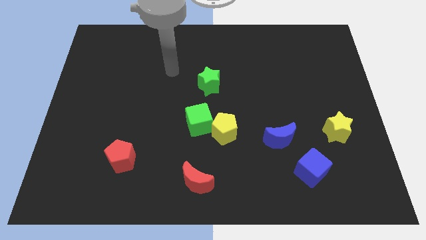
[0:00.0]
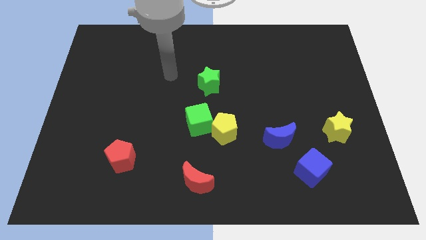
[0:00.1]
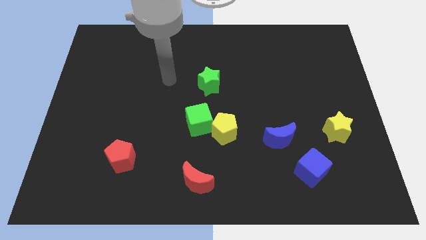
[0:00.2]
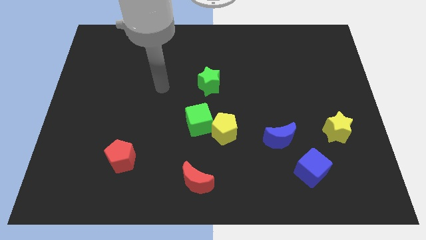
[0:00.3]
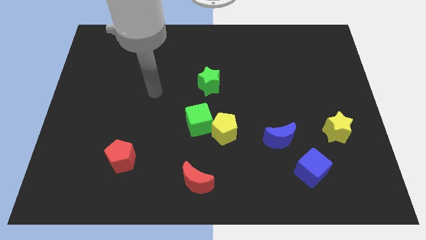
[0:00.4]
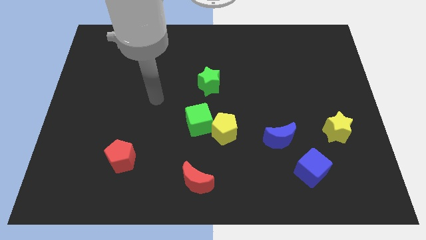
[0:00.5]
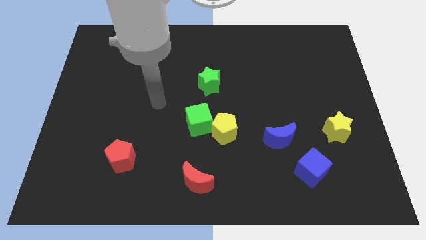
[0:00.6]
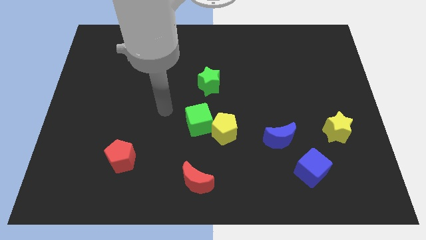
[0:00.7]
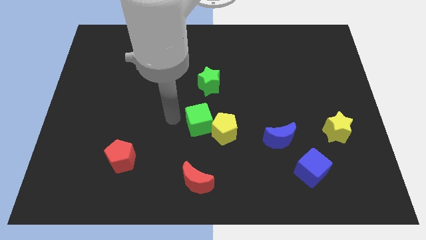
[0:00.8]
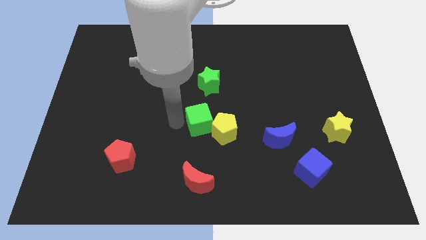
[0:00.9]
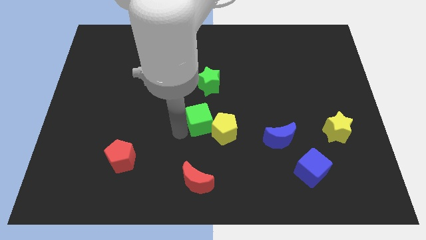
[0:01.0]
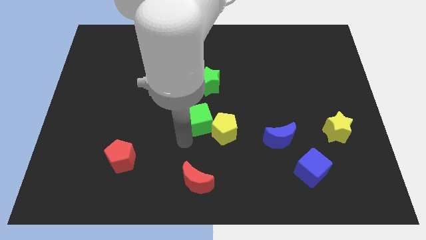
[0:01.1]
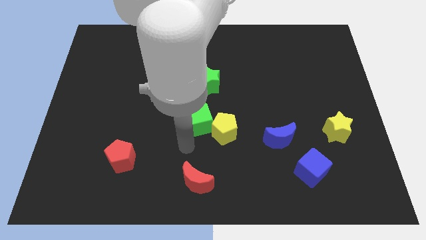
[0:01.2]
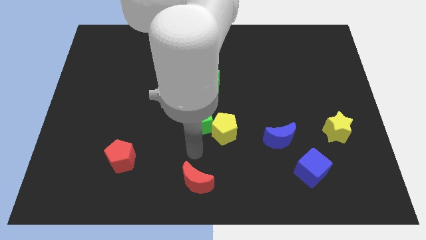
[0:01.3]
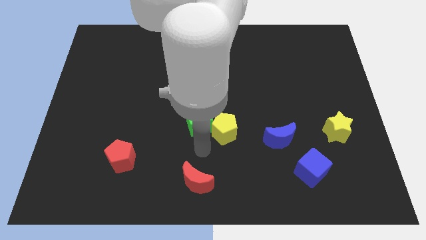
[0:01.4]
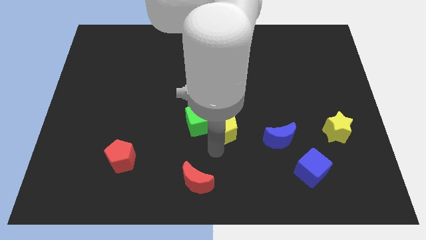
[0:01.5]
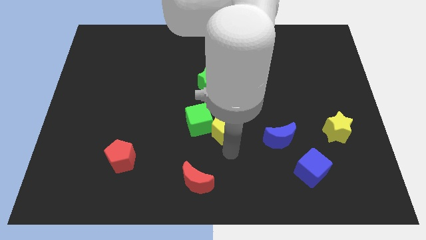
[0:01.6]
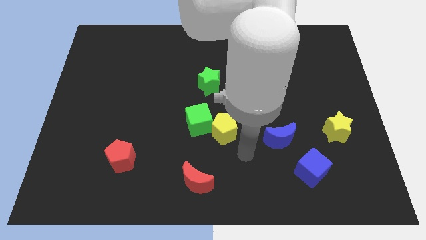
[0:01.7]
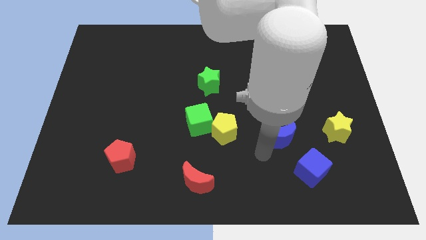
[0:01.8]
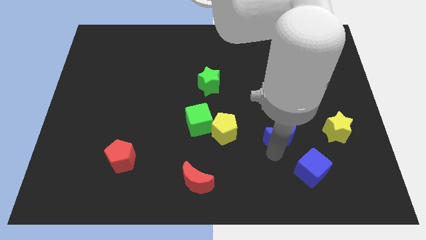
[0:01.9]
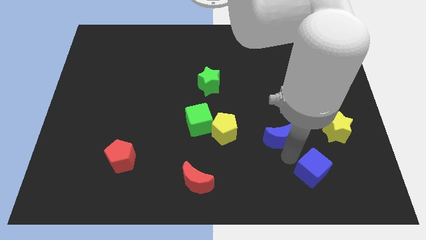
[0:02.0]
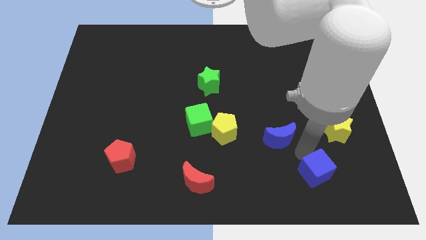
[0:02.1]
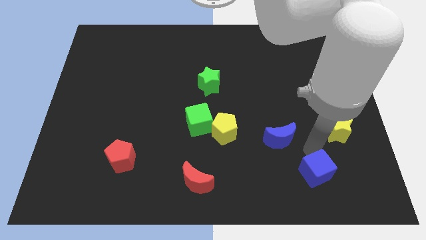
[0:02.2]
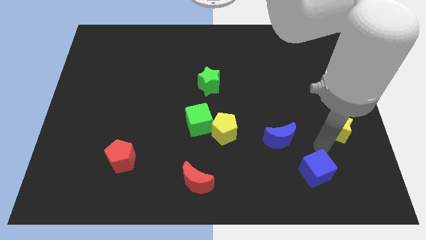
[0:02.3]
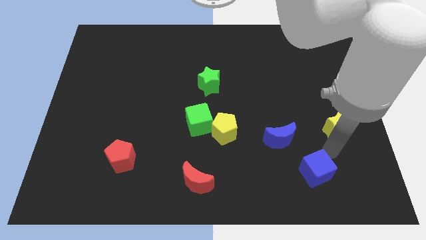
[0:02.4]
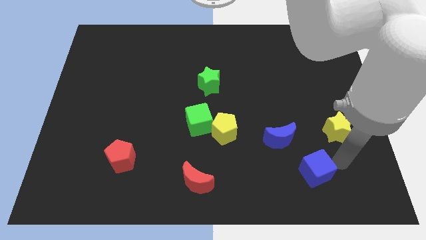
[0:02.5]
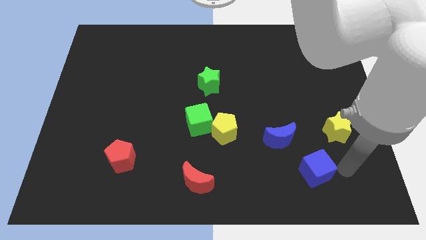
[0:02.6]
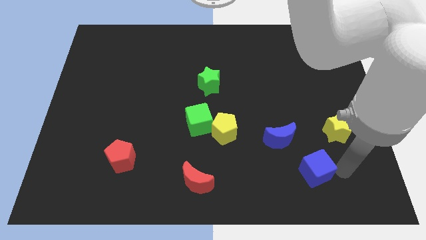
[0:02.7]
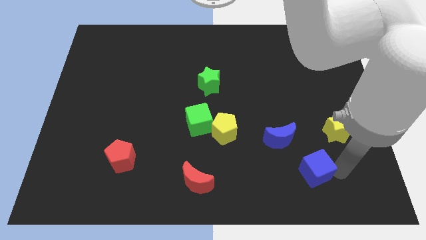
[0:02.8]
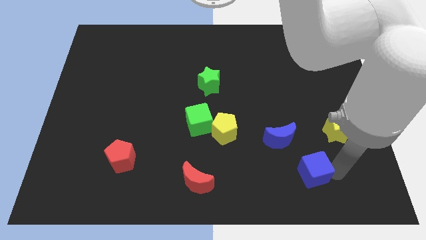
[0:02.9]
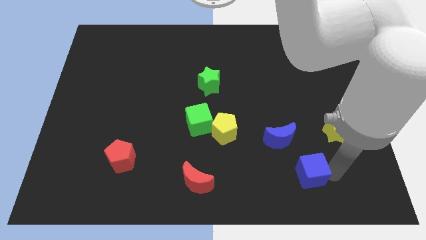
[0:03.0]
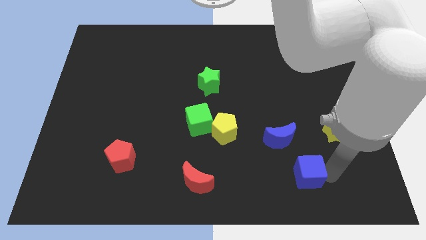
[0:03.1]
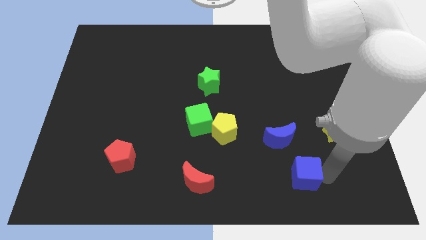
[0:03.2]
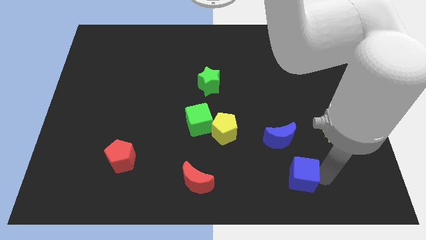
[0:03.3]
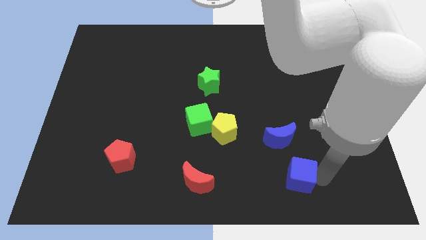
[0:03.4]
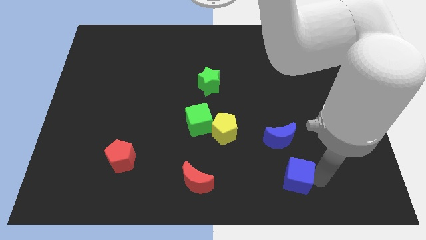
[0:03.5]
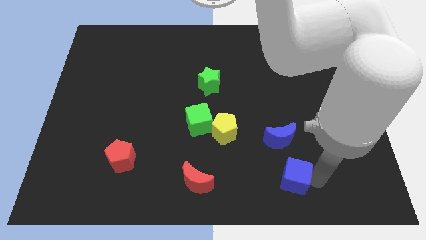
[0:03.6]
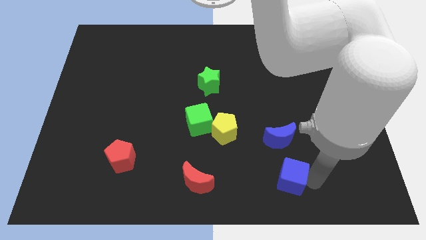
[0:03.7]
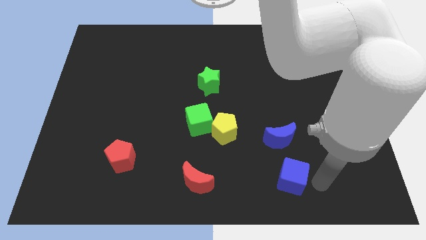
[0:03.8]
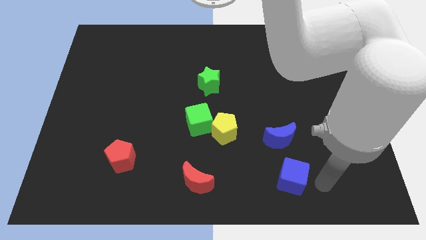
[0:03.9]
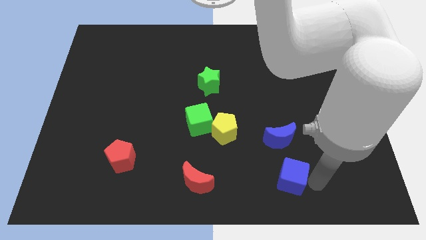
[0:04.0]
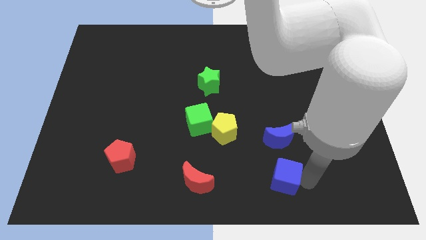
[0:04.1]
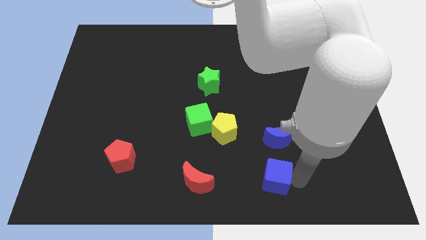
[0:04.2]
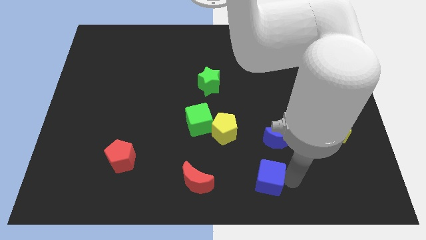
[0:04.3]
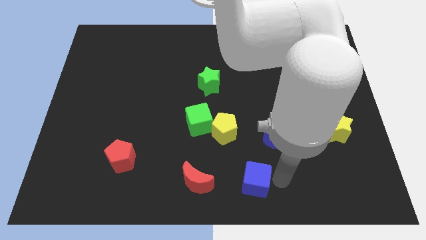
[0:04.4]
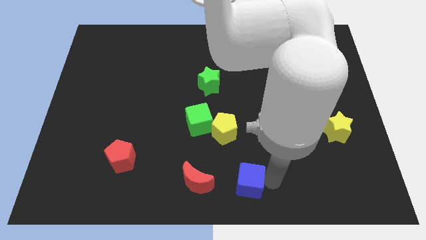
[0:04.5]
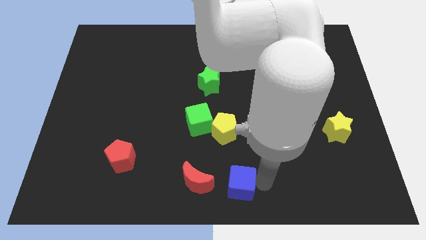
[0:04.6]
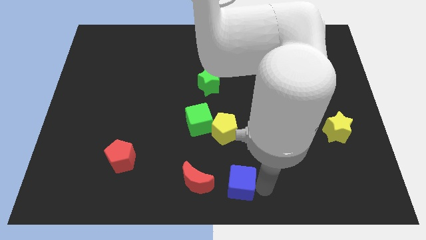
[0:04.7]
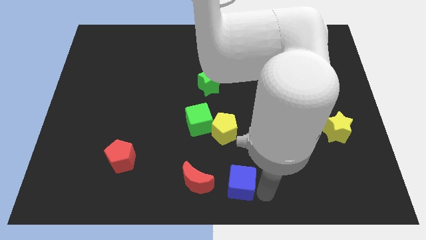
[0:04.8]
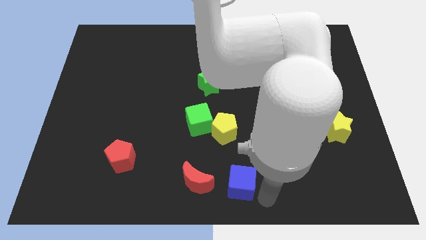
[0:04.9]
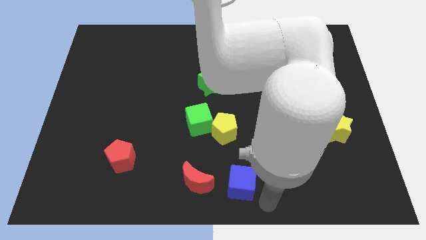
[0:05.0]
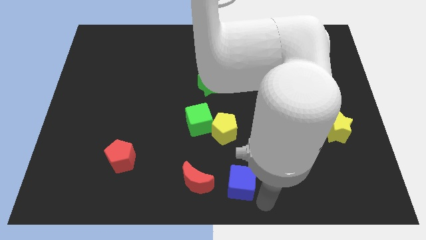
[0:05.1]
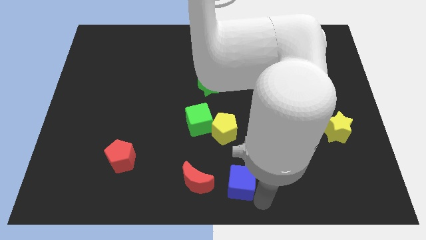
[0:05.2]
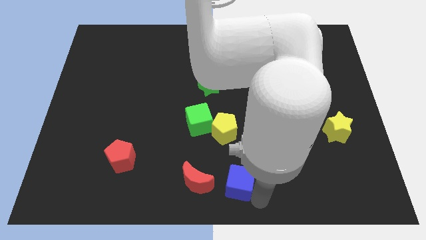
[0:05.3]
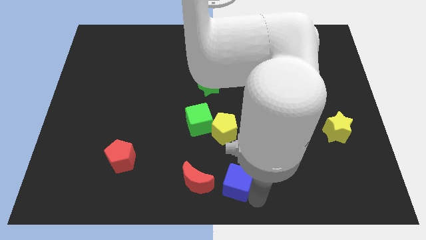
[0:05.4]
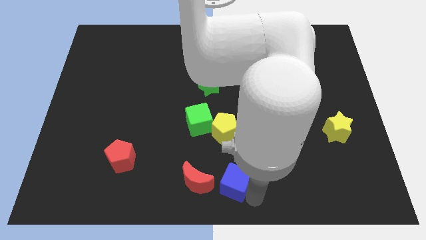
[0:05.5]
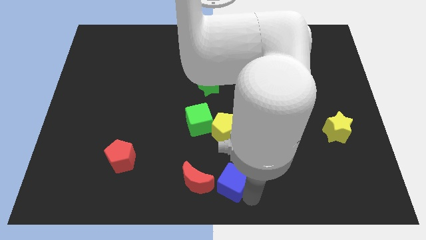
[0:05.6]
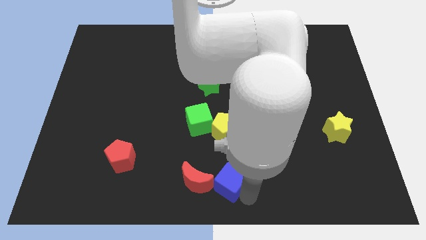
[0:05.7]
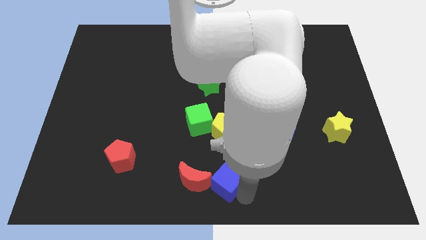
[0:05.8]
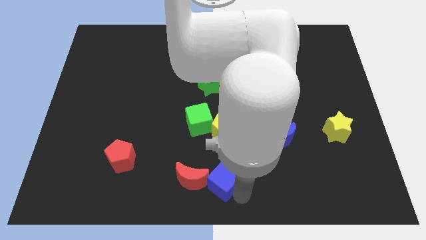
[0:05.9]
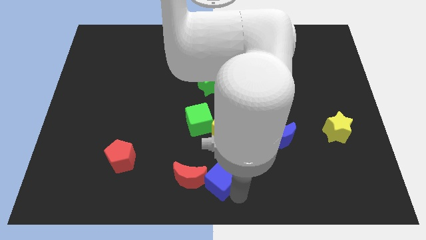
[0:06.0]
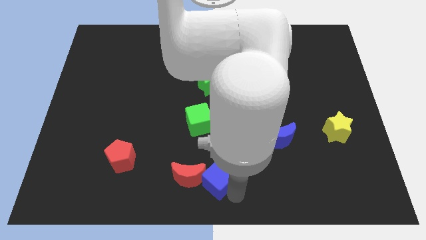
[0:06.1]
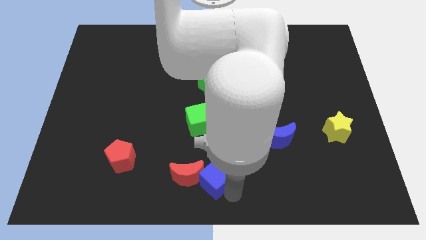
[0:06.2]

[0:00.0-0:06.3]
move the blue cube to the left

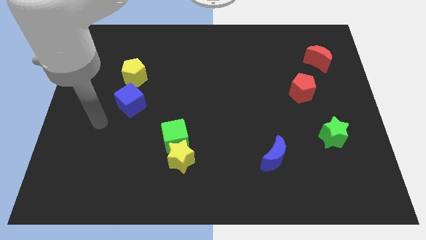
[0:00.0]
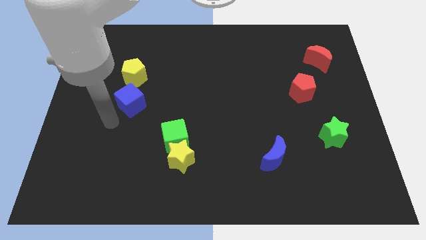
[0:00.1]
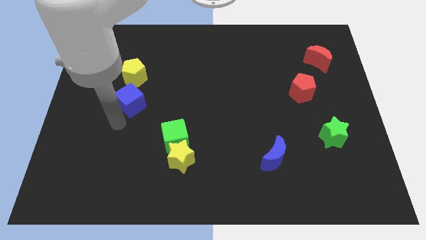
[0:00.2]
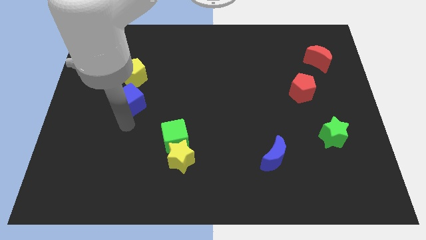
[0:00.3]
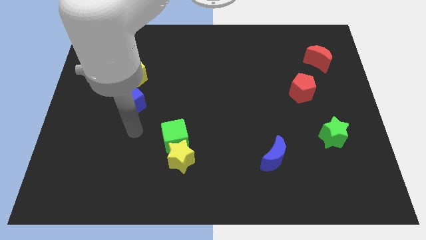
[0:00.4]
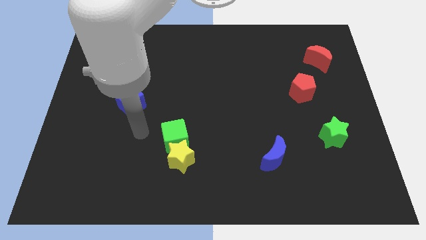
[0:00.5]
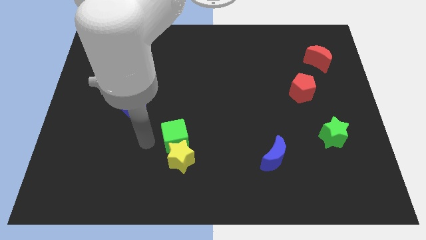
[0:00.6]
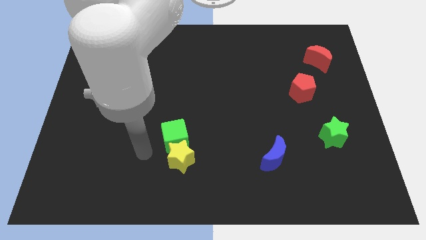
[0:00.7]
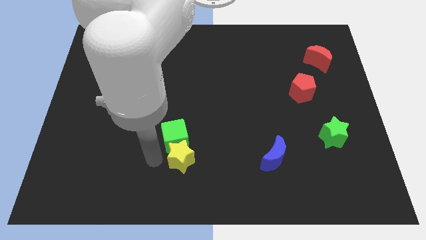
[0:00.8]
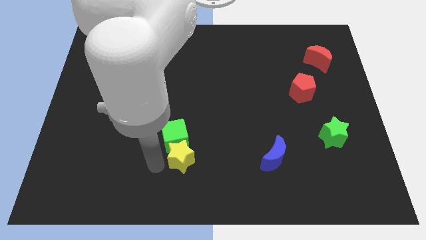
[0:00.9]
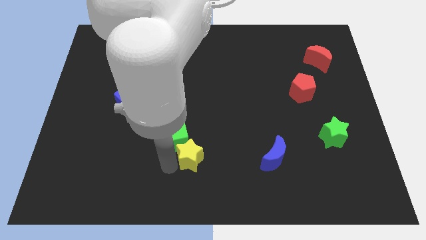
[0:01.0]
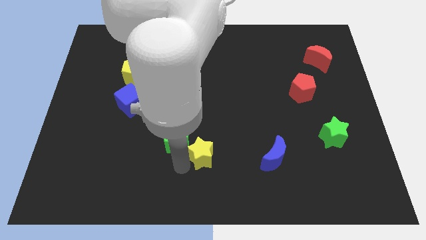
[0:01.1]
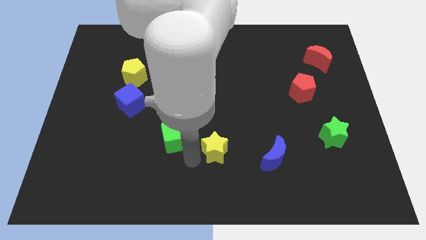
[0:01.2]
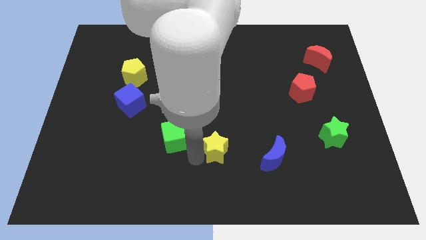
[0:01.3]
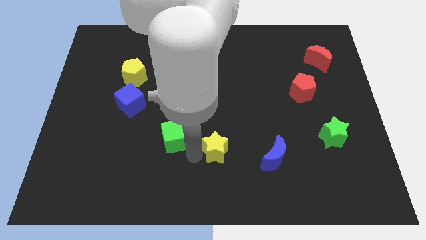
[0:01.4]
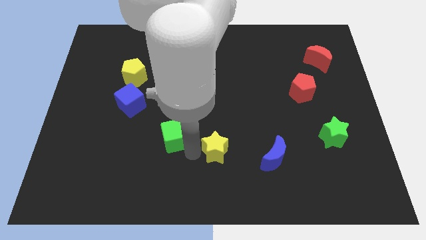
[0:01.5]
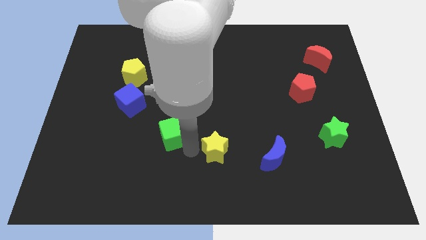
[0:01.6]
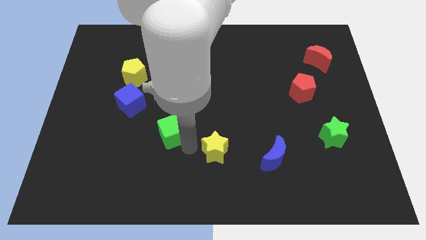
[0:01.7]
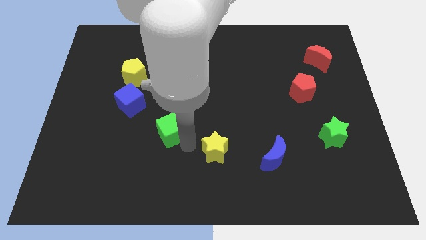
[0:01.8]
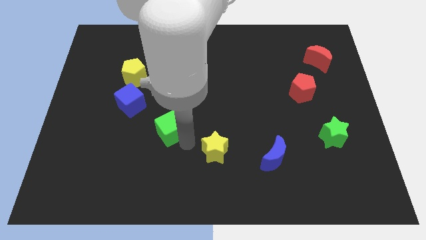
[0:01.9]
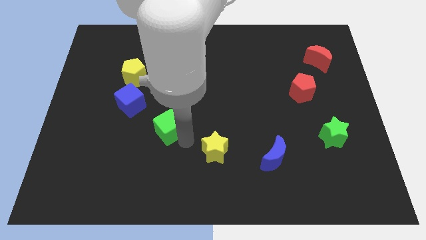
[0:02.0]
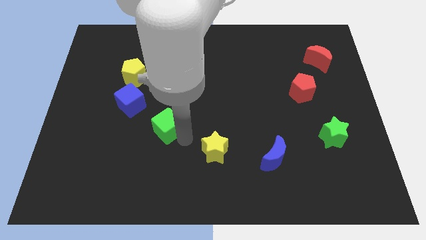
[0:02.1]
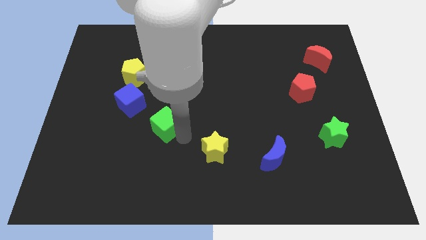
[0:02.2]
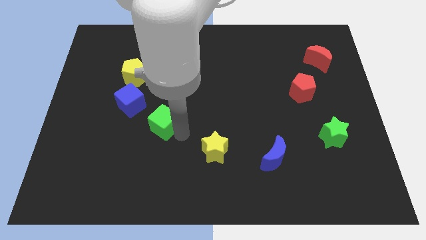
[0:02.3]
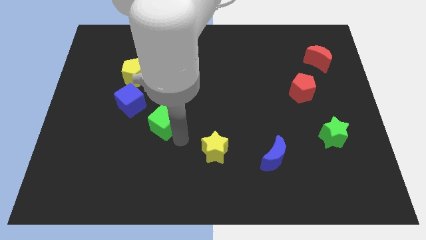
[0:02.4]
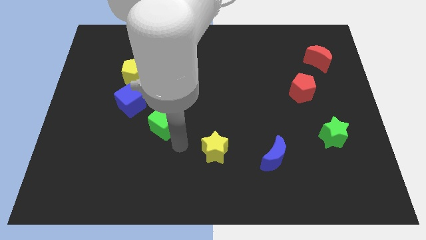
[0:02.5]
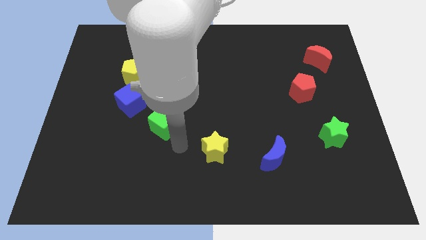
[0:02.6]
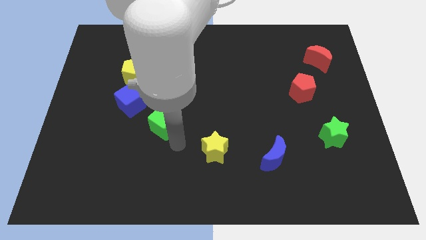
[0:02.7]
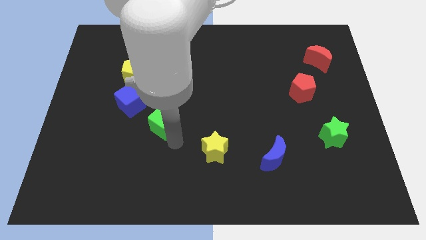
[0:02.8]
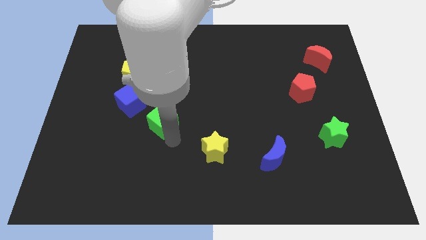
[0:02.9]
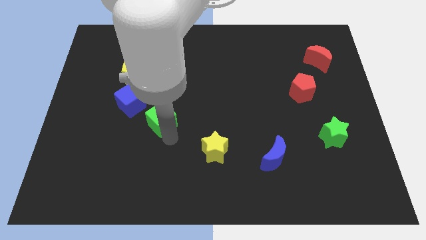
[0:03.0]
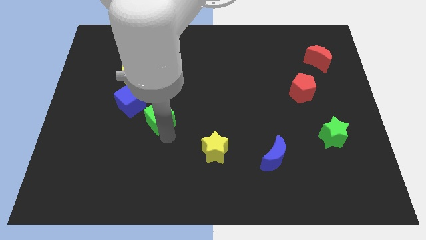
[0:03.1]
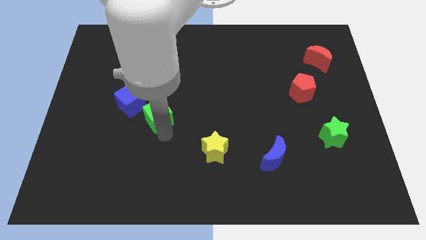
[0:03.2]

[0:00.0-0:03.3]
move the green cube somewhat upwards and left diagonally
